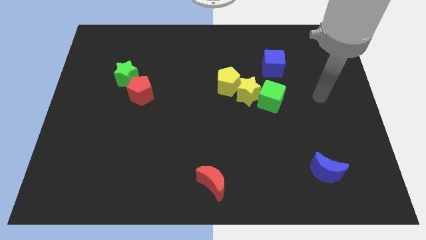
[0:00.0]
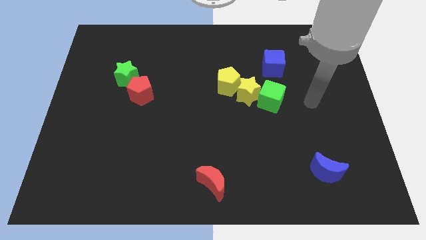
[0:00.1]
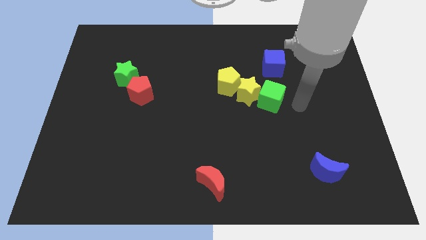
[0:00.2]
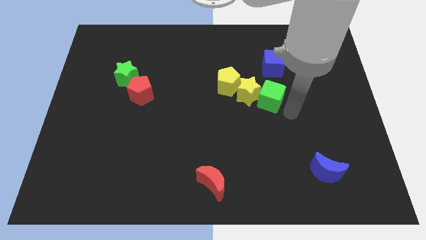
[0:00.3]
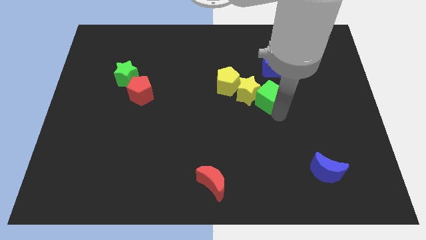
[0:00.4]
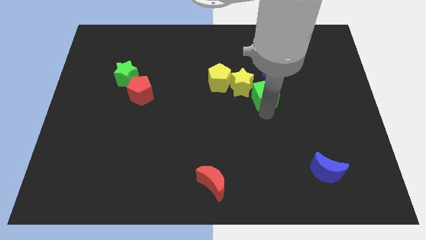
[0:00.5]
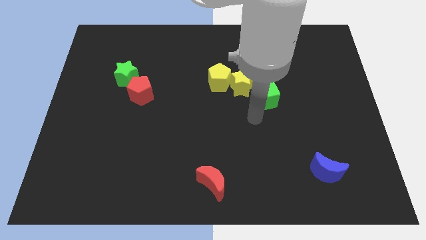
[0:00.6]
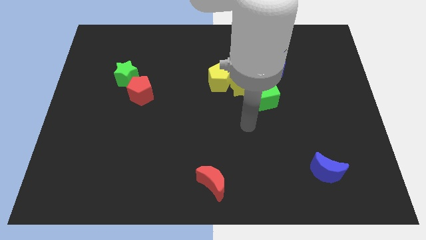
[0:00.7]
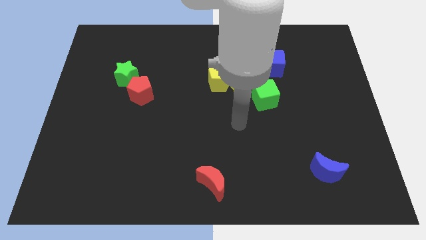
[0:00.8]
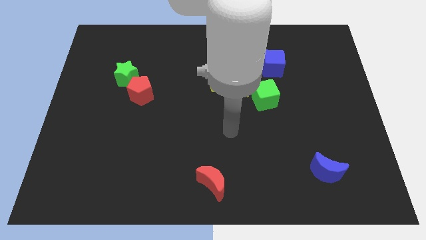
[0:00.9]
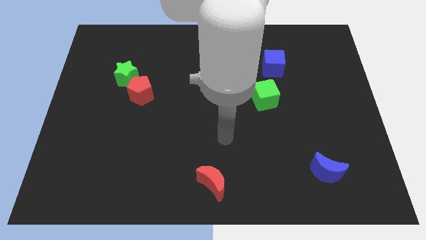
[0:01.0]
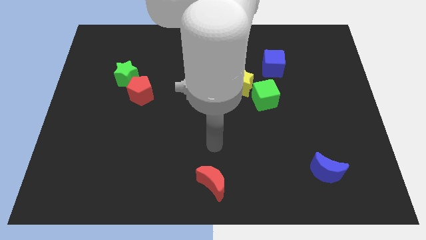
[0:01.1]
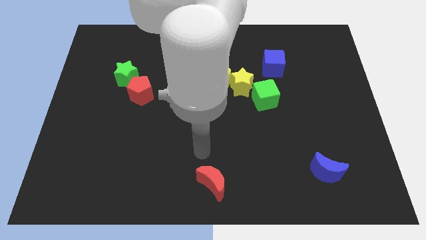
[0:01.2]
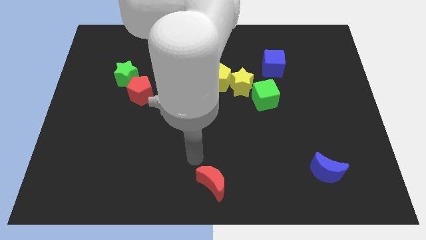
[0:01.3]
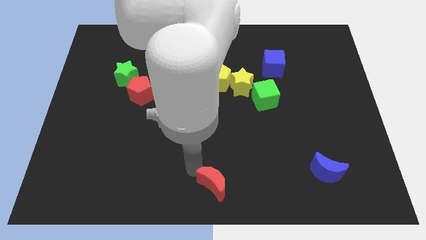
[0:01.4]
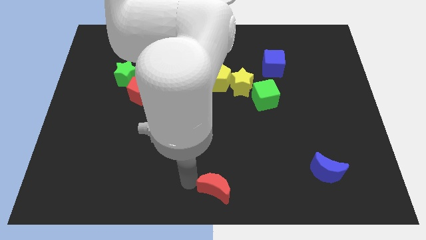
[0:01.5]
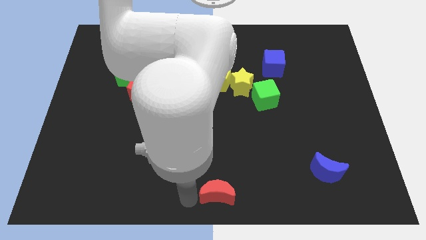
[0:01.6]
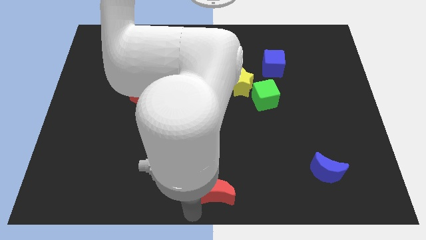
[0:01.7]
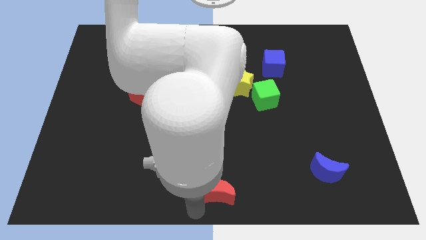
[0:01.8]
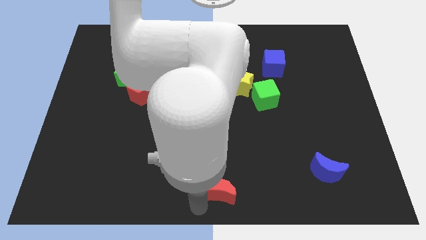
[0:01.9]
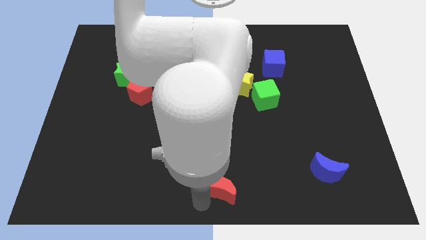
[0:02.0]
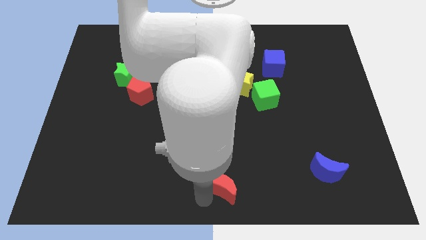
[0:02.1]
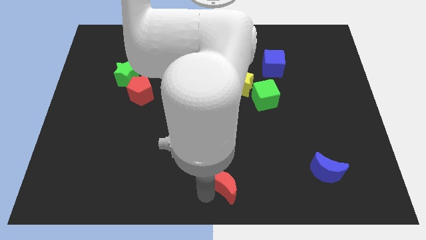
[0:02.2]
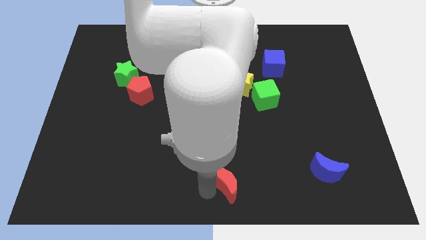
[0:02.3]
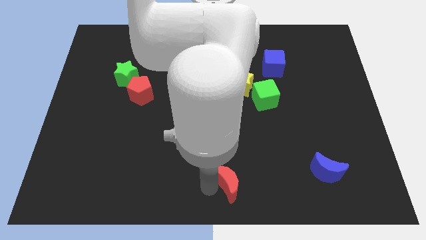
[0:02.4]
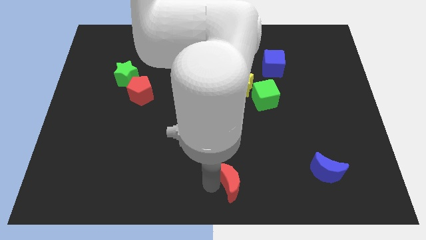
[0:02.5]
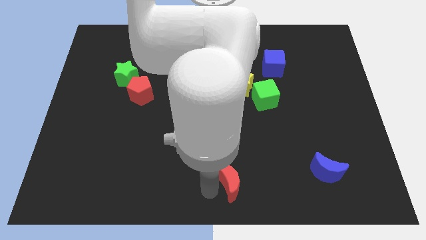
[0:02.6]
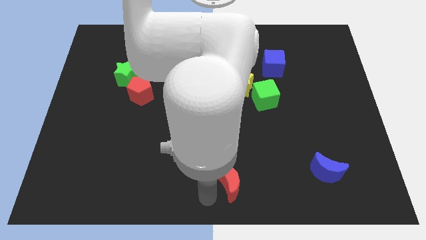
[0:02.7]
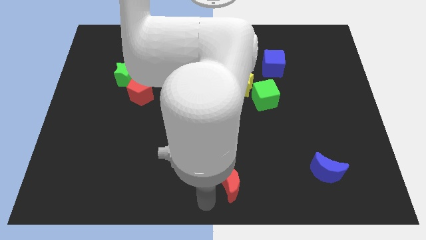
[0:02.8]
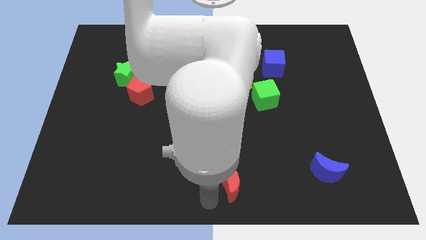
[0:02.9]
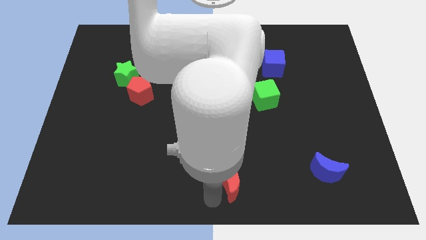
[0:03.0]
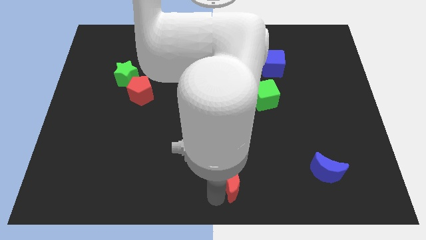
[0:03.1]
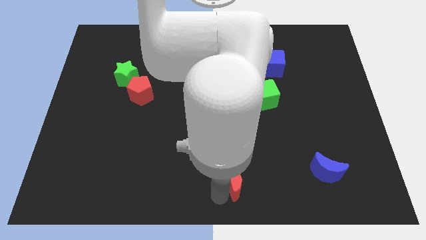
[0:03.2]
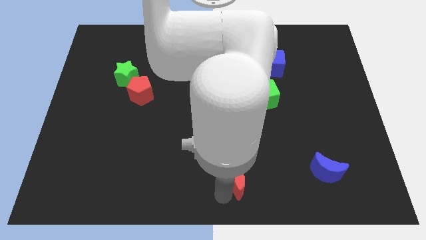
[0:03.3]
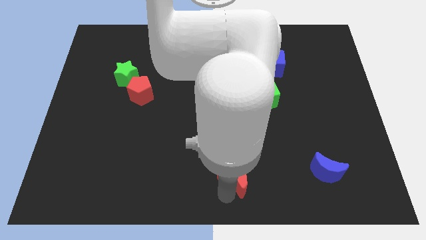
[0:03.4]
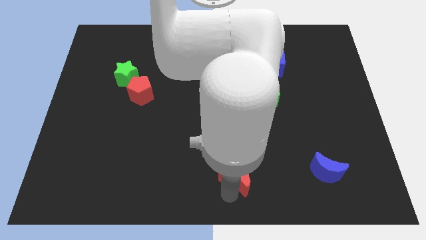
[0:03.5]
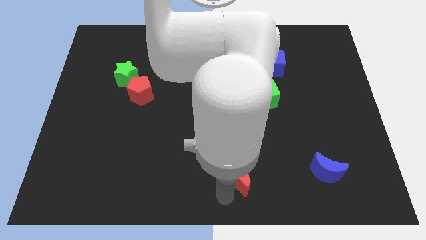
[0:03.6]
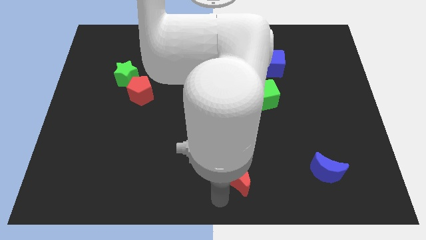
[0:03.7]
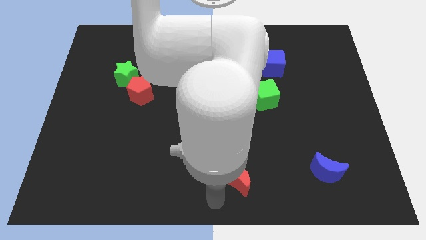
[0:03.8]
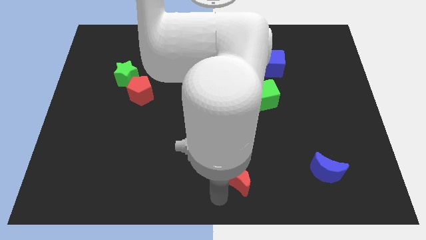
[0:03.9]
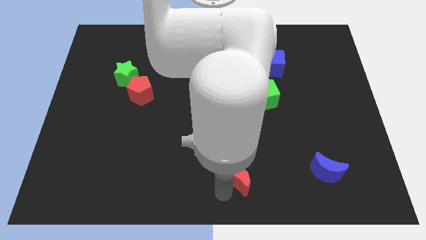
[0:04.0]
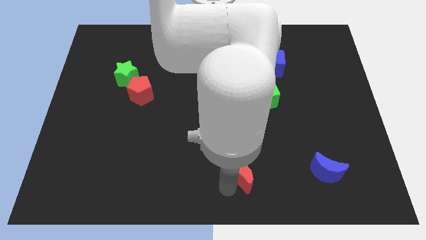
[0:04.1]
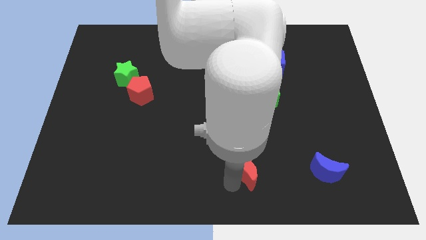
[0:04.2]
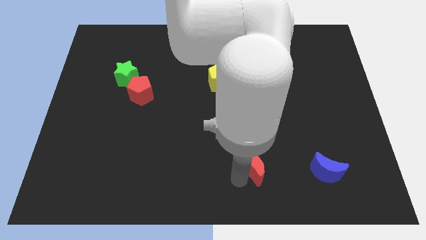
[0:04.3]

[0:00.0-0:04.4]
slightly push the red moon diagonally up and to the right

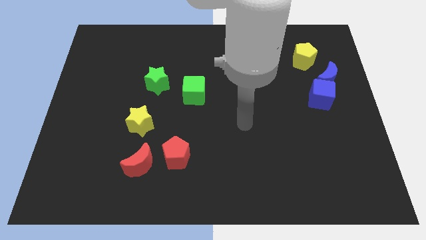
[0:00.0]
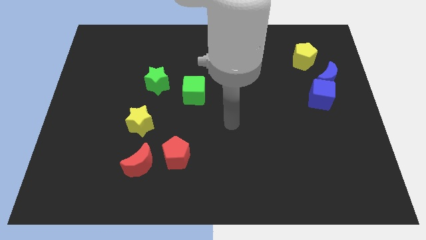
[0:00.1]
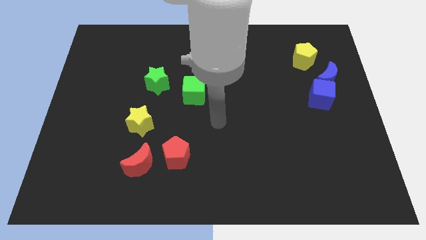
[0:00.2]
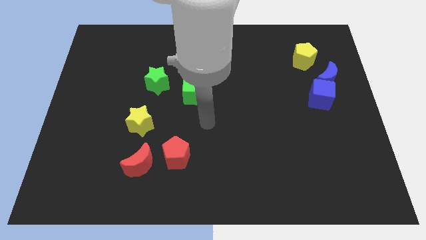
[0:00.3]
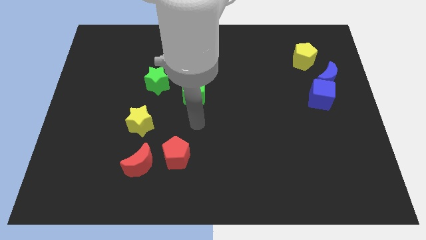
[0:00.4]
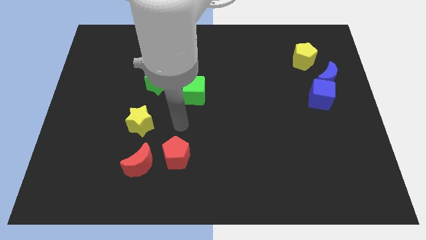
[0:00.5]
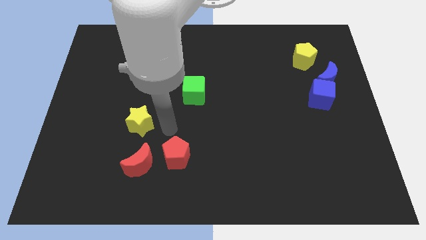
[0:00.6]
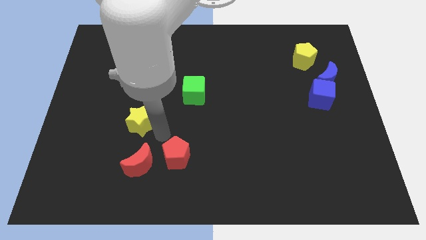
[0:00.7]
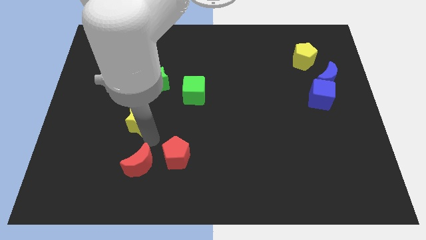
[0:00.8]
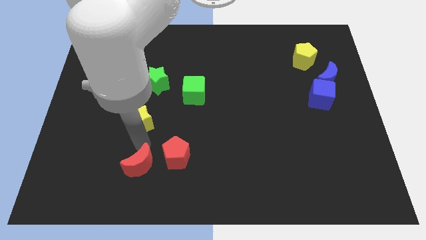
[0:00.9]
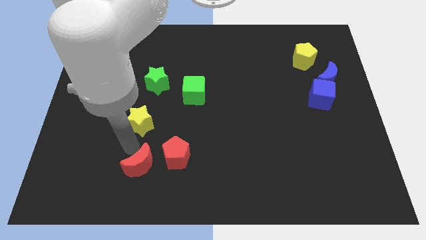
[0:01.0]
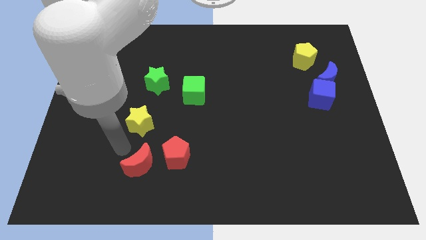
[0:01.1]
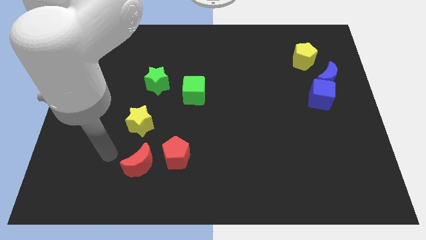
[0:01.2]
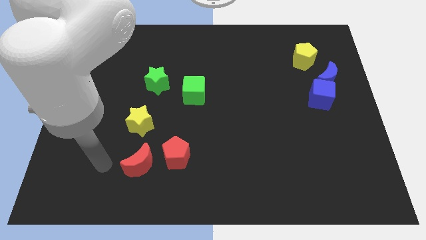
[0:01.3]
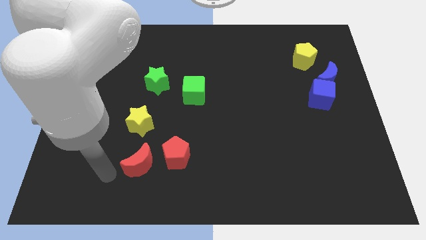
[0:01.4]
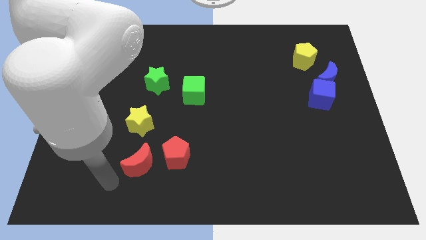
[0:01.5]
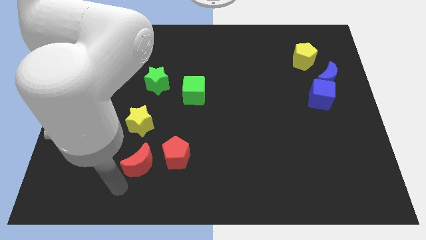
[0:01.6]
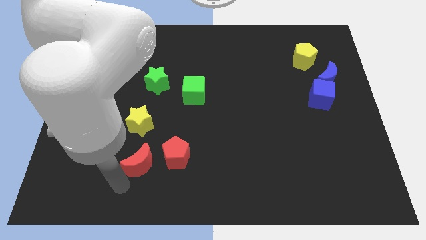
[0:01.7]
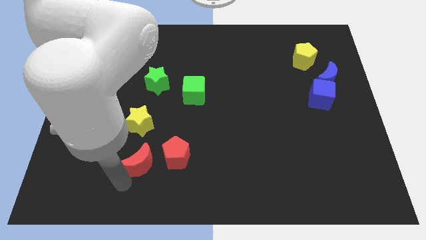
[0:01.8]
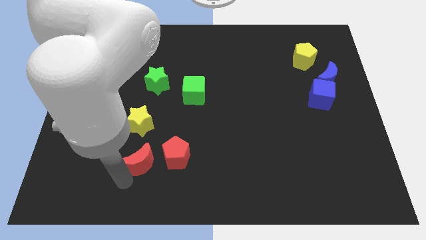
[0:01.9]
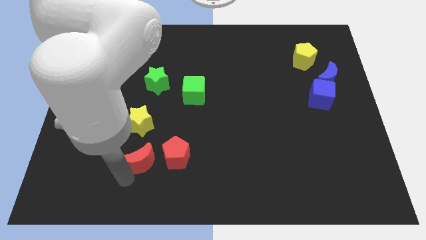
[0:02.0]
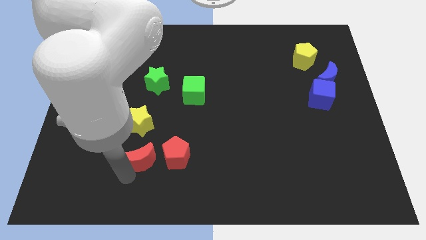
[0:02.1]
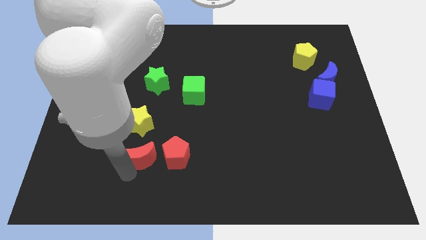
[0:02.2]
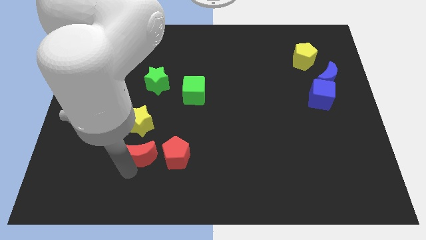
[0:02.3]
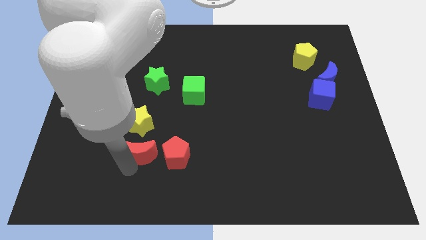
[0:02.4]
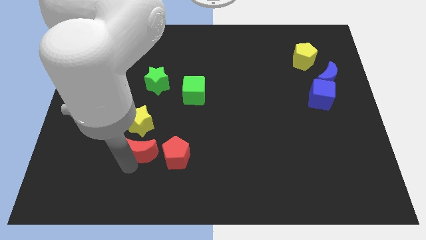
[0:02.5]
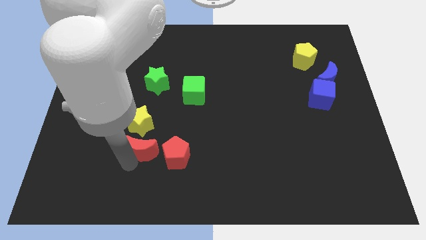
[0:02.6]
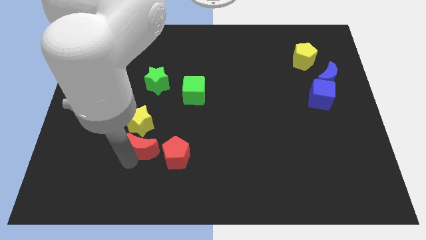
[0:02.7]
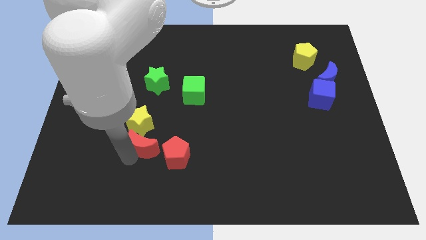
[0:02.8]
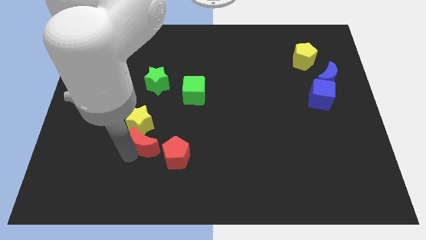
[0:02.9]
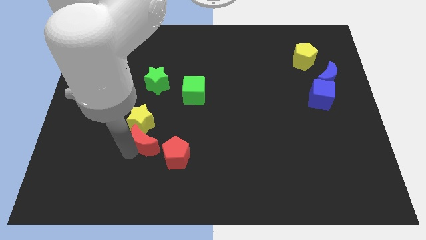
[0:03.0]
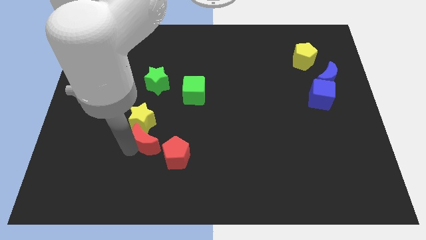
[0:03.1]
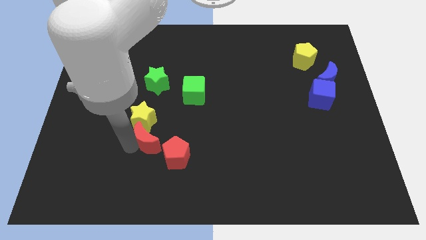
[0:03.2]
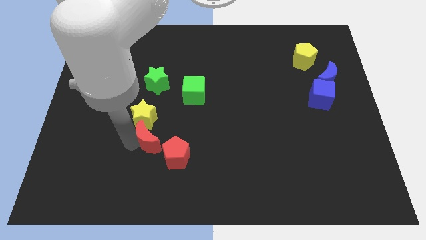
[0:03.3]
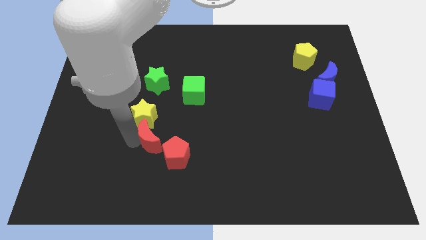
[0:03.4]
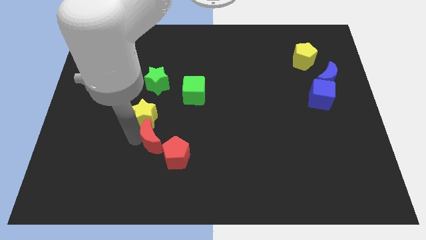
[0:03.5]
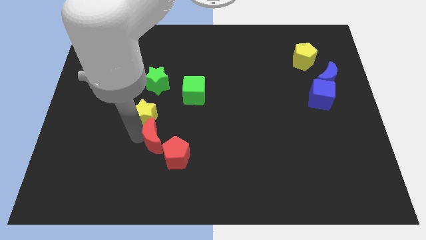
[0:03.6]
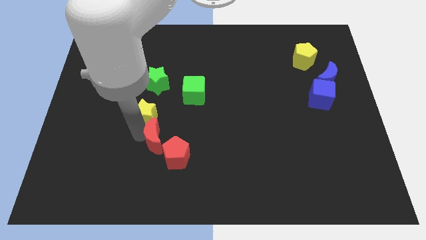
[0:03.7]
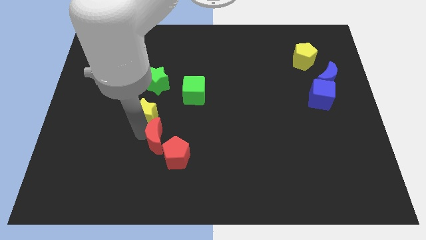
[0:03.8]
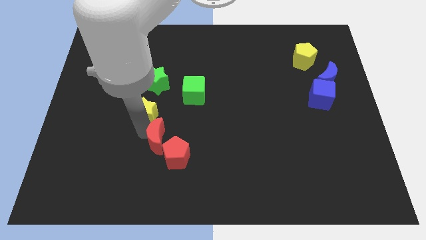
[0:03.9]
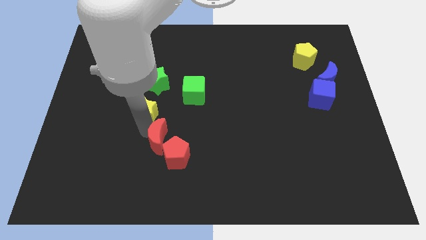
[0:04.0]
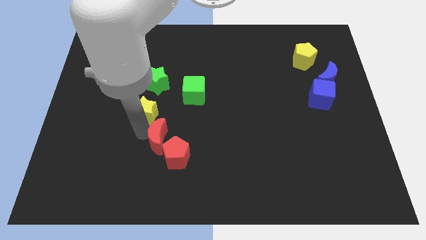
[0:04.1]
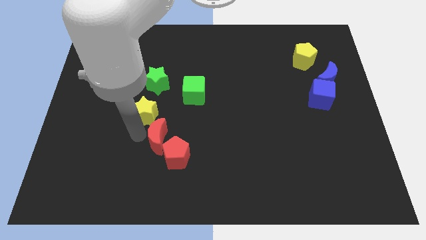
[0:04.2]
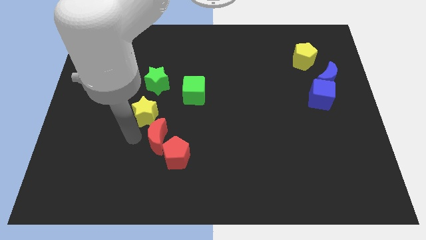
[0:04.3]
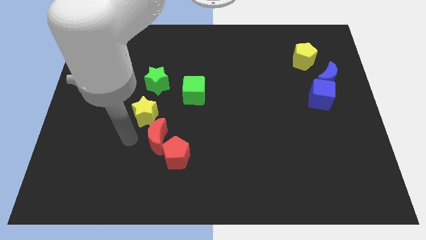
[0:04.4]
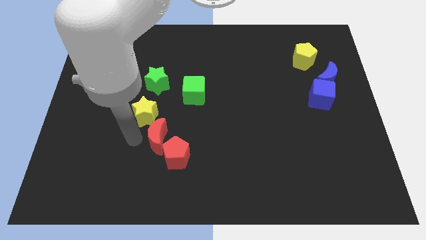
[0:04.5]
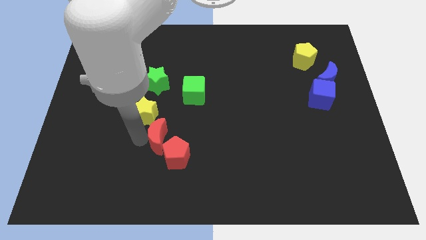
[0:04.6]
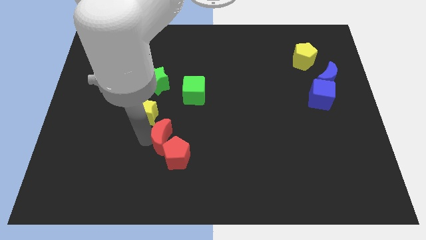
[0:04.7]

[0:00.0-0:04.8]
move the red moon a bit diagonally up and right
